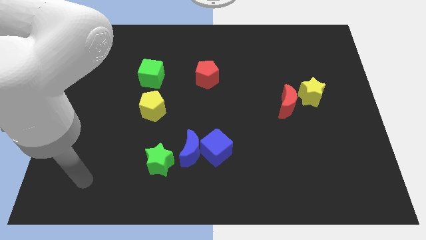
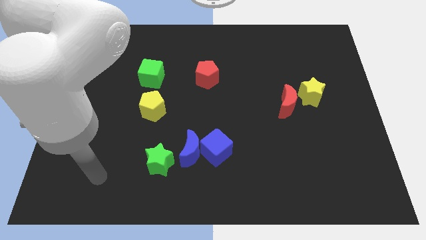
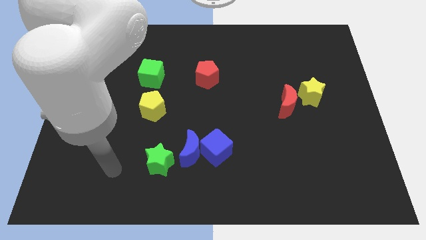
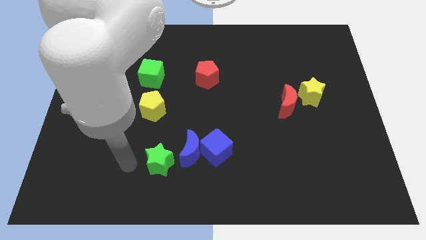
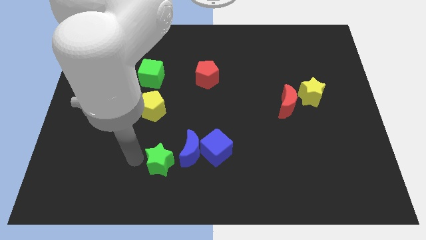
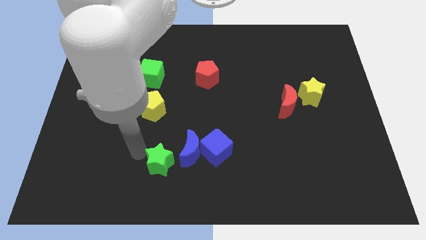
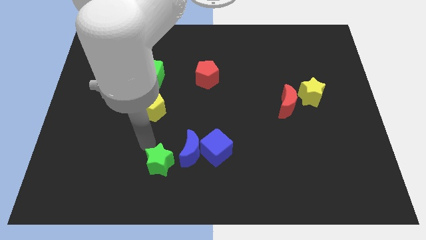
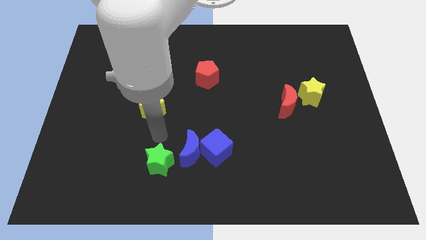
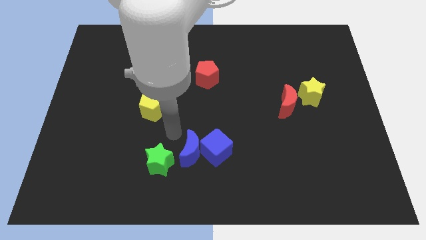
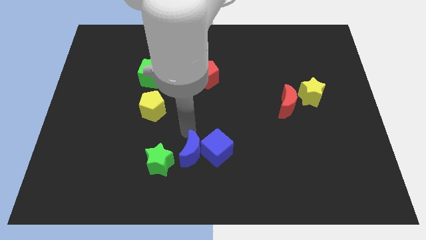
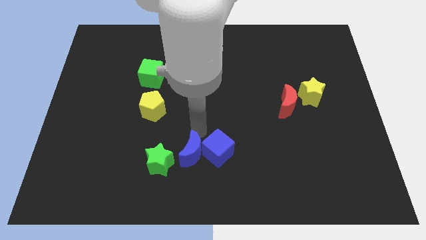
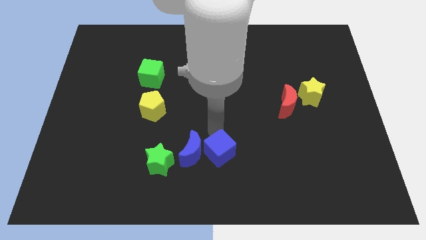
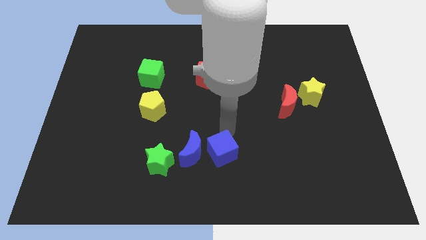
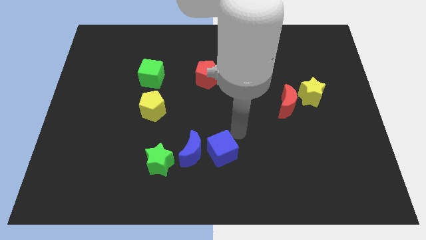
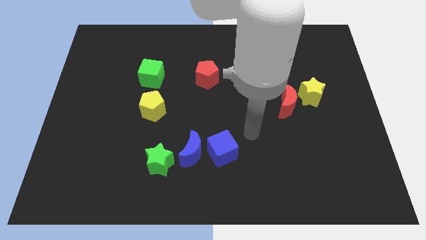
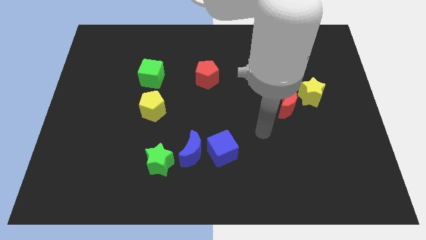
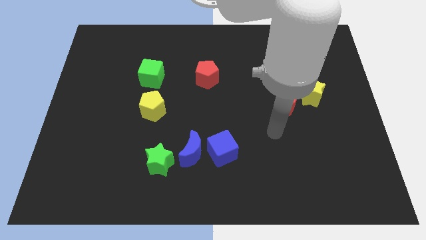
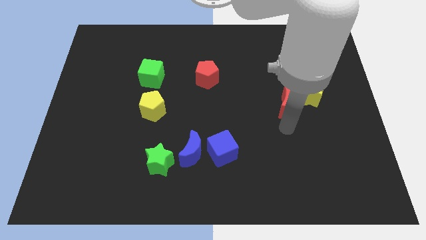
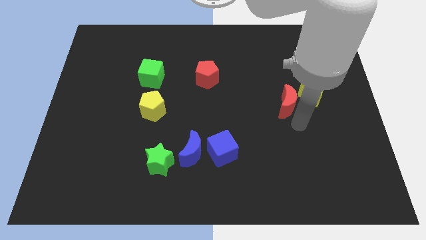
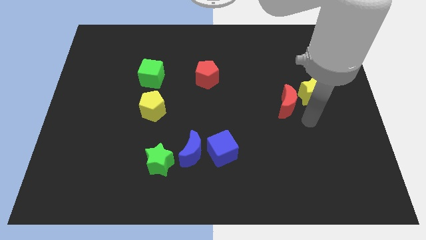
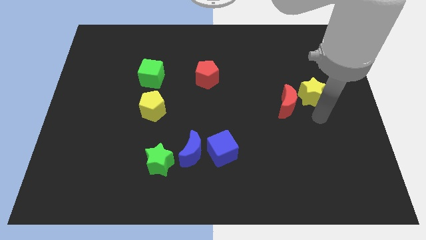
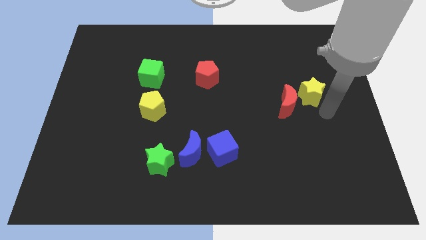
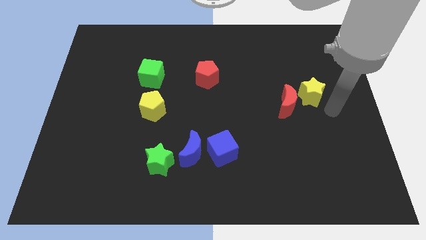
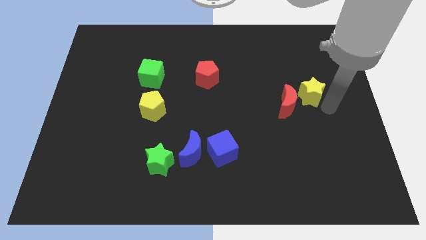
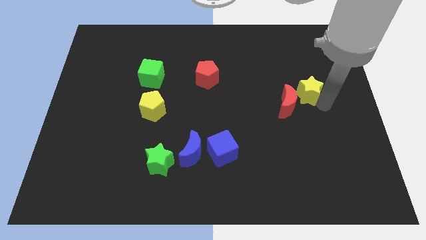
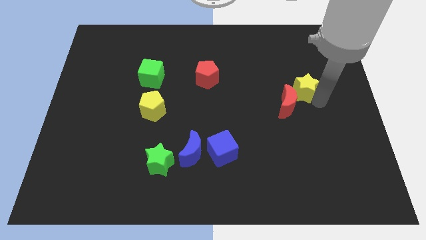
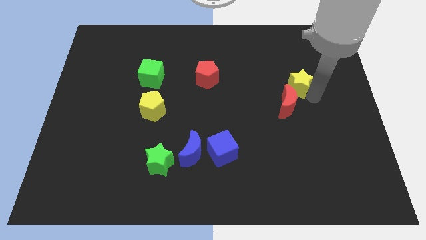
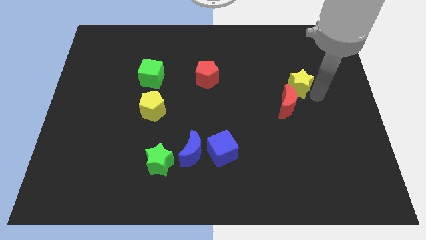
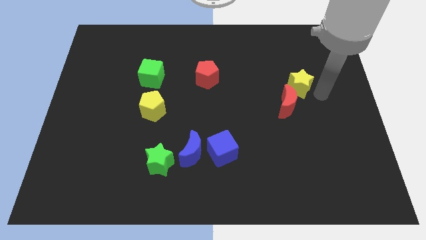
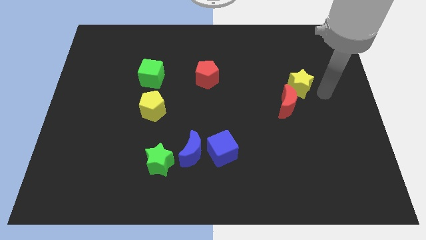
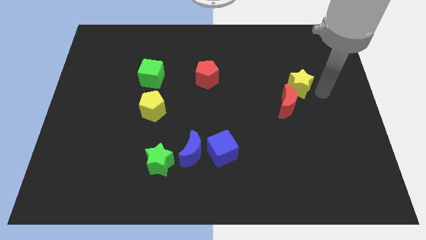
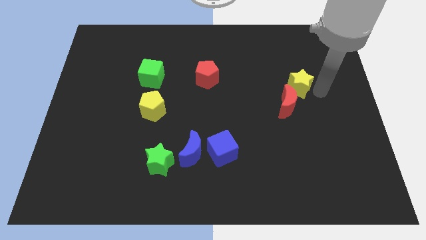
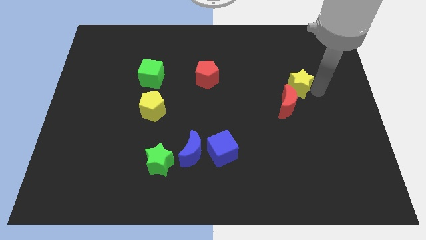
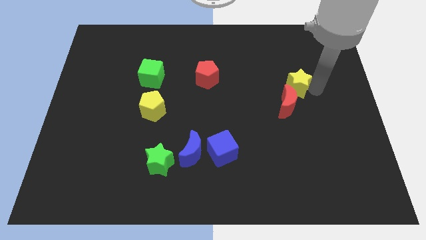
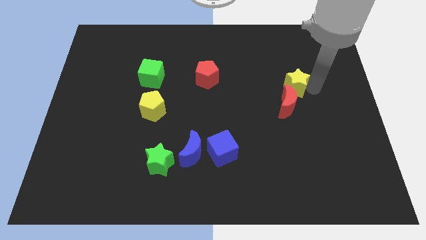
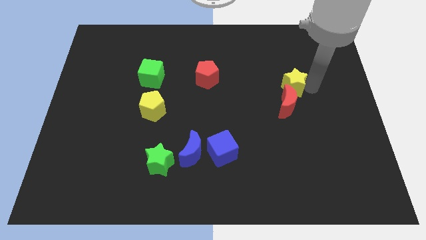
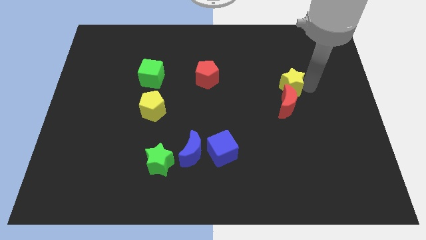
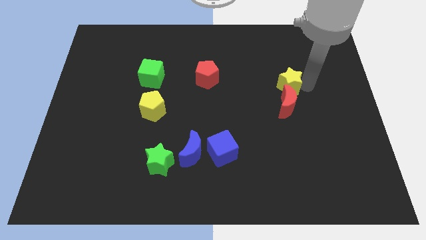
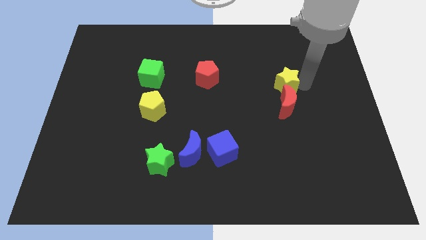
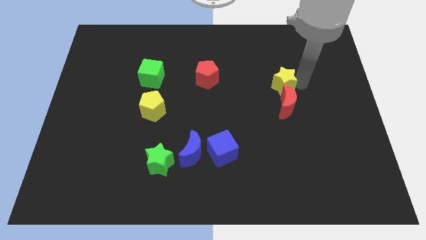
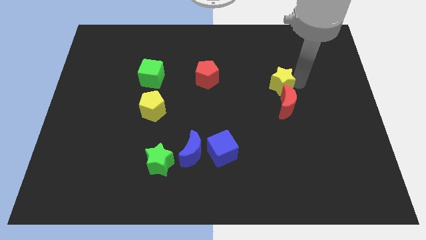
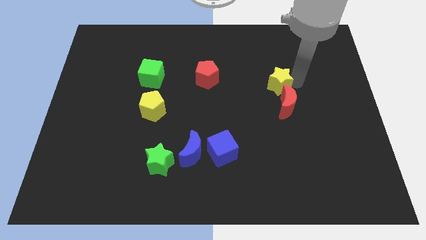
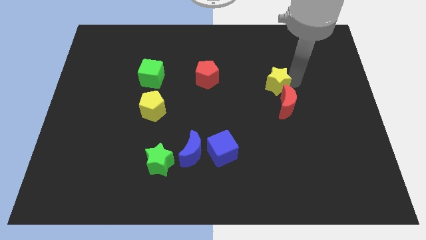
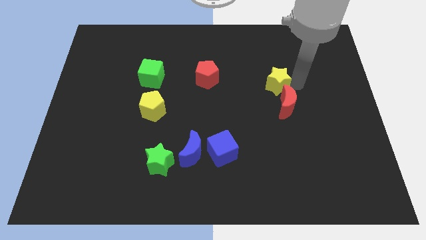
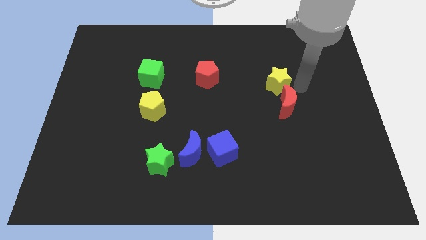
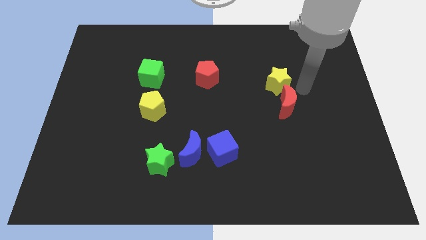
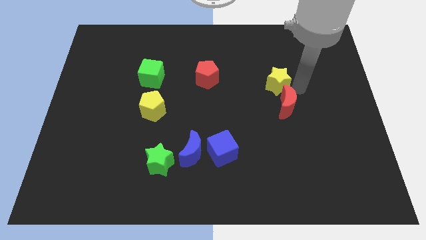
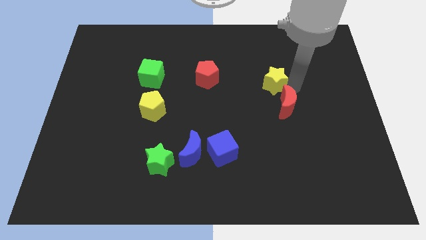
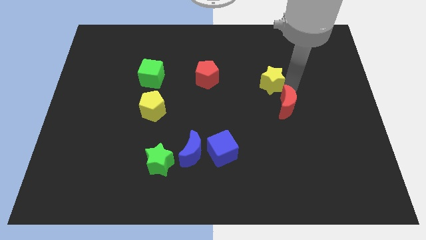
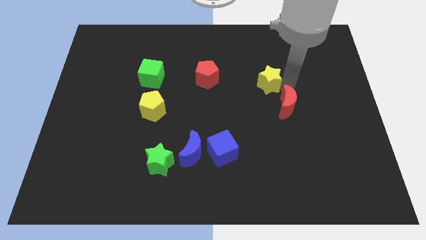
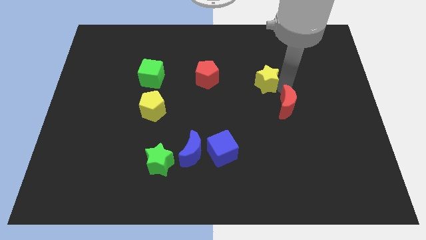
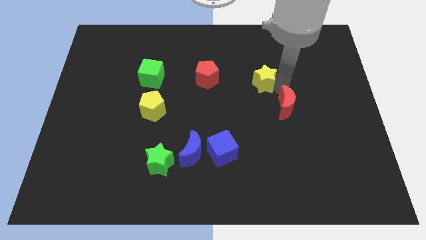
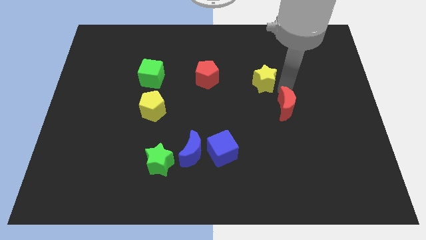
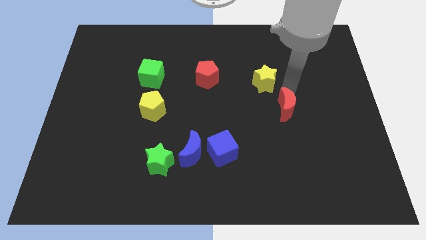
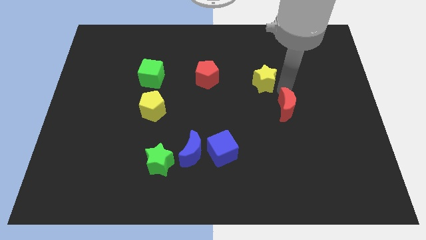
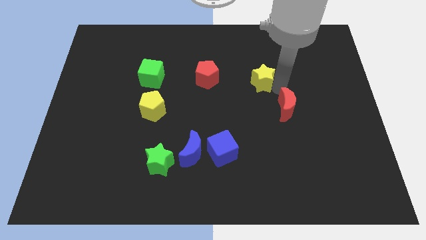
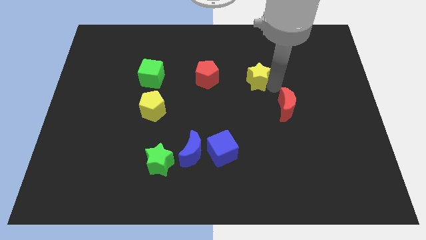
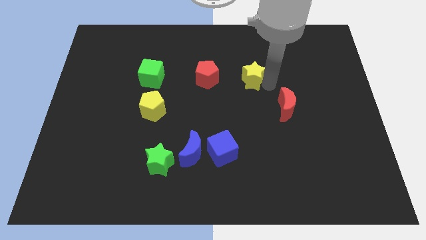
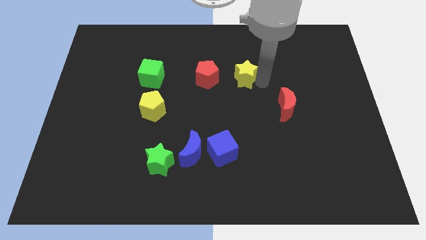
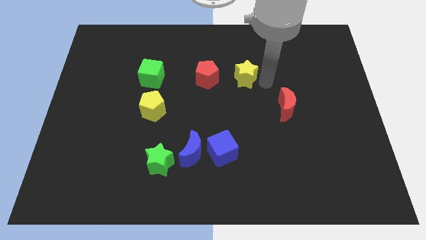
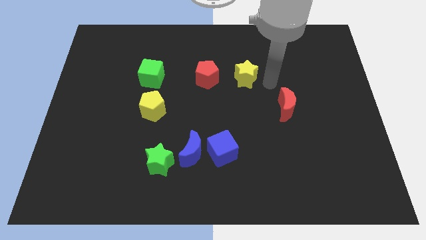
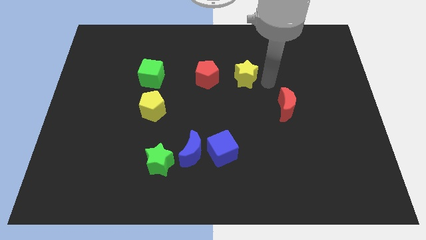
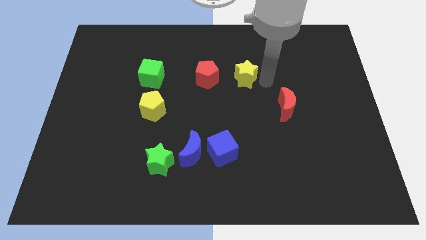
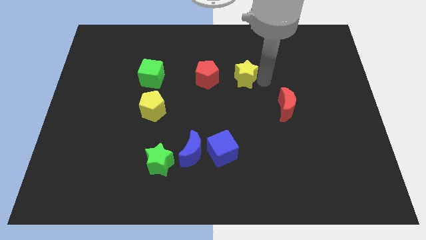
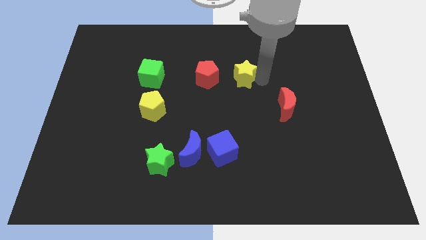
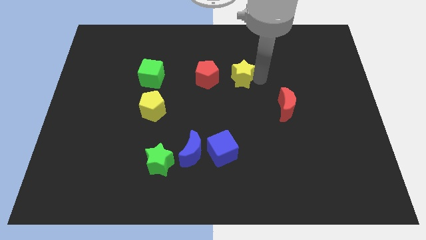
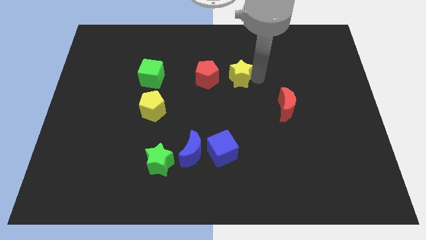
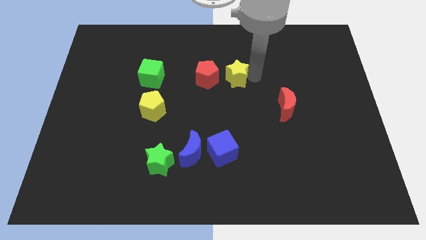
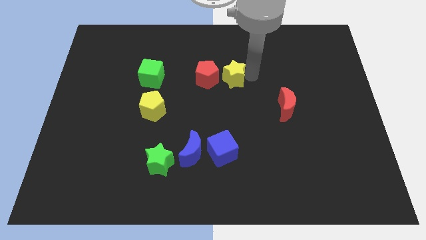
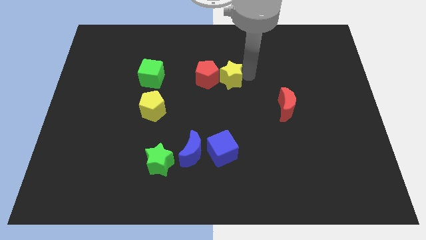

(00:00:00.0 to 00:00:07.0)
put the yellow star towards the red pentagon
